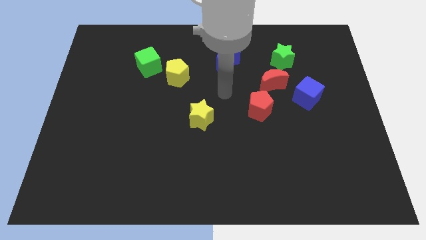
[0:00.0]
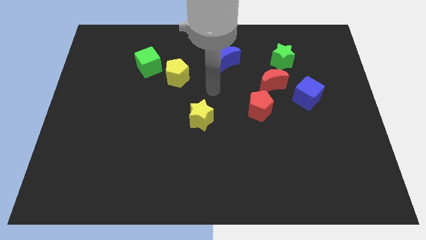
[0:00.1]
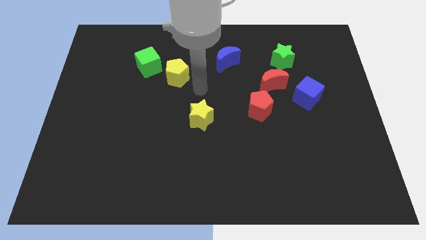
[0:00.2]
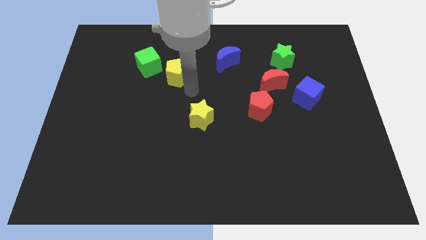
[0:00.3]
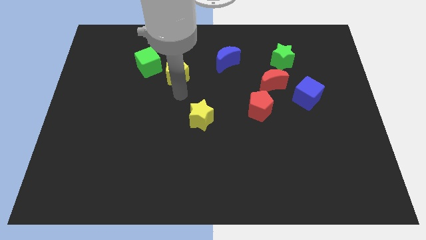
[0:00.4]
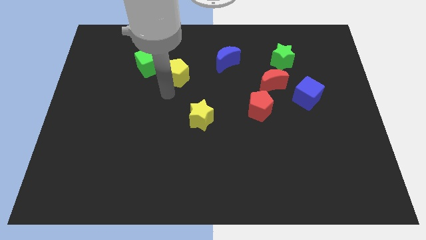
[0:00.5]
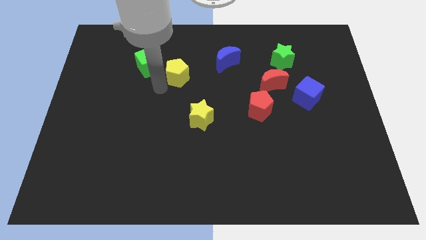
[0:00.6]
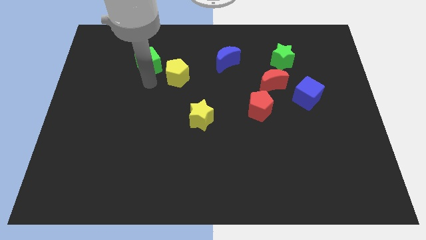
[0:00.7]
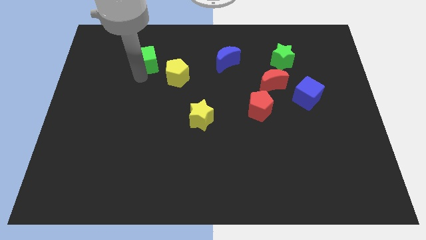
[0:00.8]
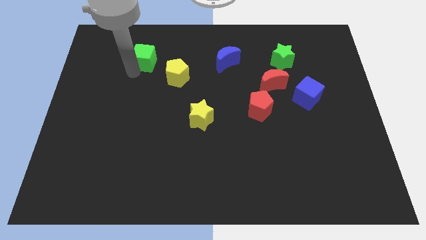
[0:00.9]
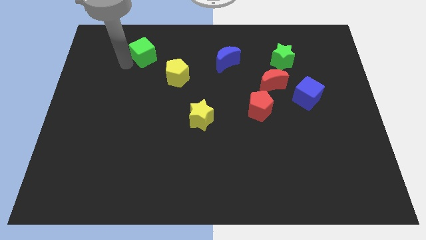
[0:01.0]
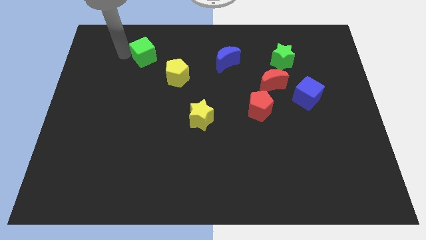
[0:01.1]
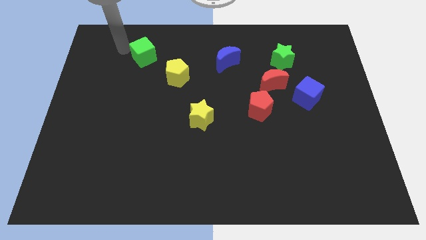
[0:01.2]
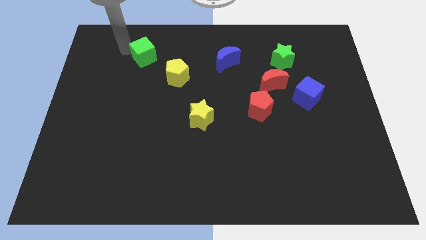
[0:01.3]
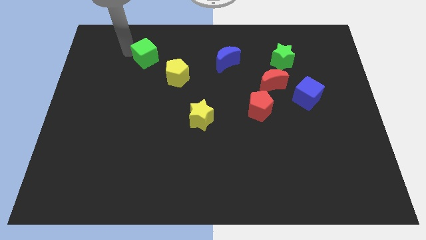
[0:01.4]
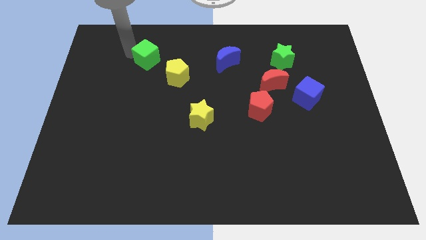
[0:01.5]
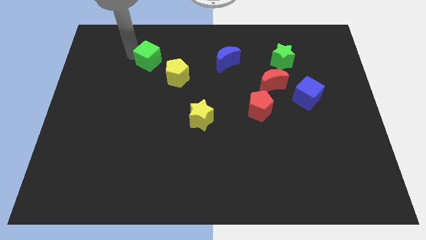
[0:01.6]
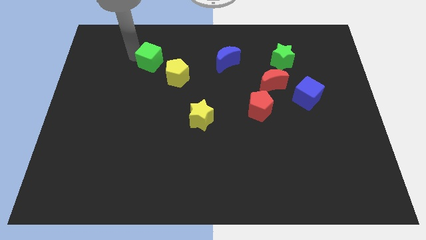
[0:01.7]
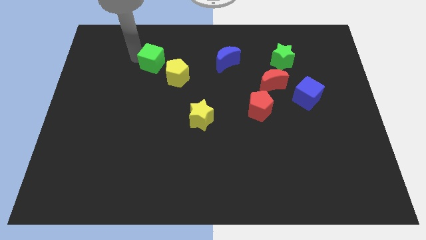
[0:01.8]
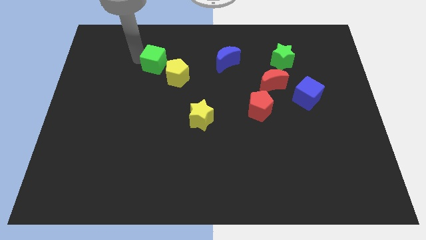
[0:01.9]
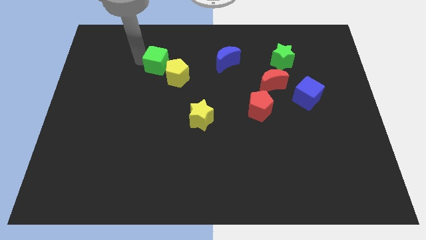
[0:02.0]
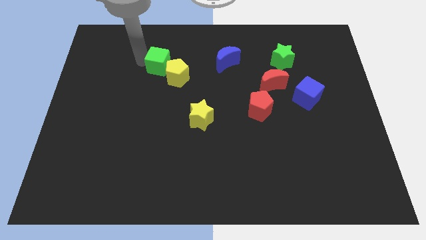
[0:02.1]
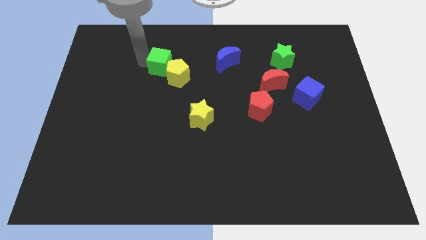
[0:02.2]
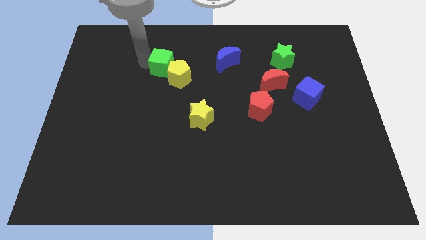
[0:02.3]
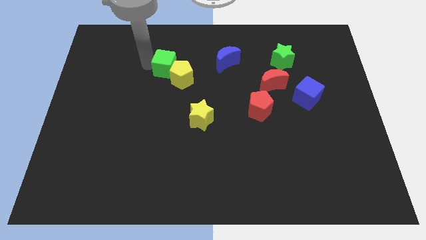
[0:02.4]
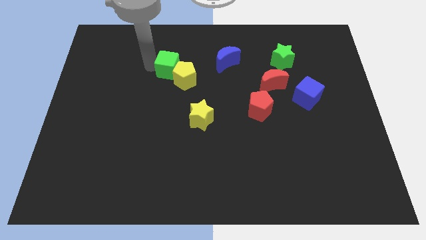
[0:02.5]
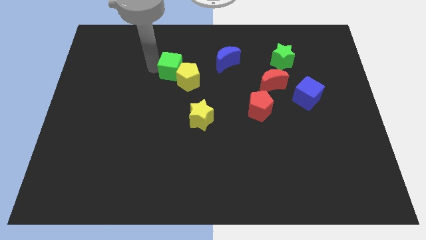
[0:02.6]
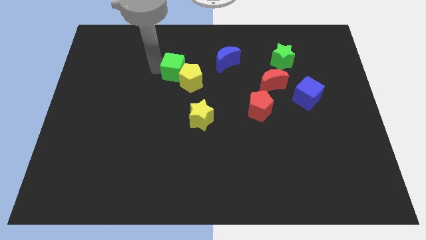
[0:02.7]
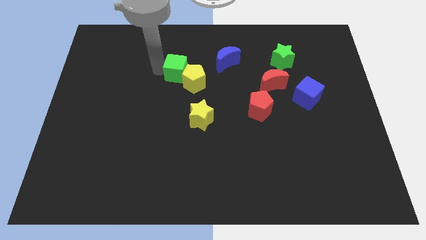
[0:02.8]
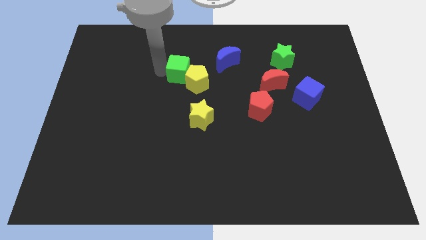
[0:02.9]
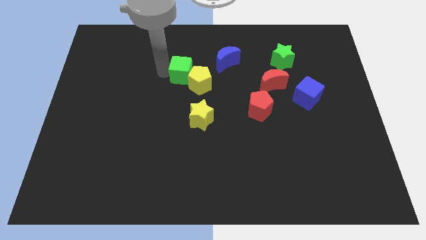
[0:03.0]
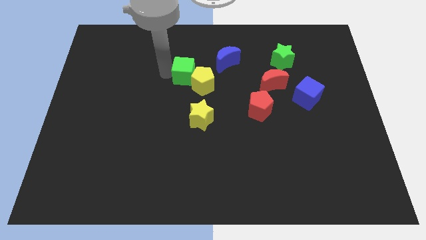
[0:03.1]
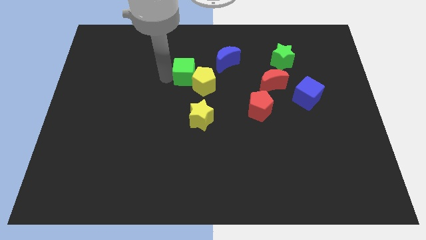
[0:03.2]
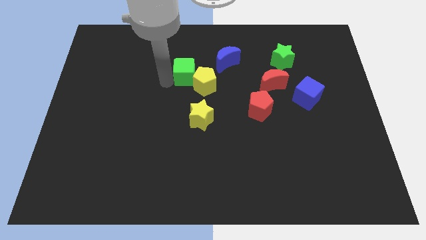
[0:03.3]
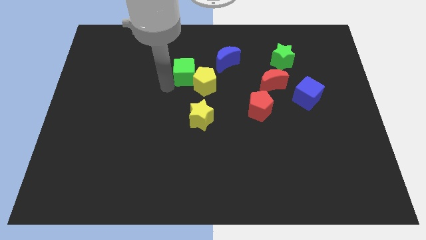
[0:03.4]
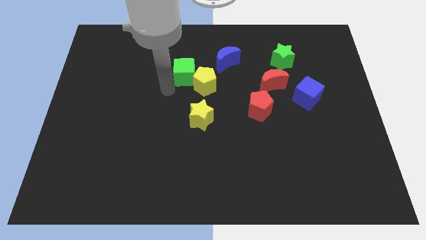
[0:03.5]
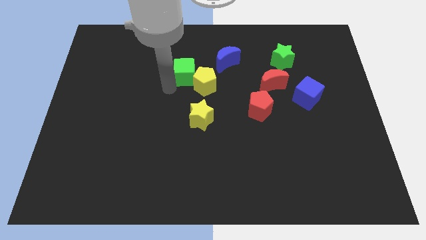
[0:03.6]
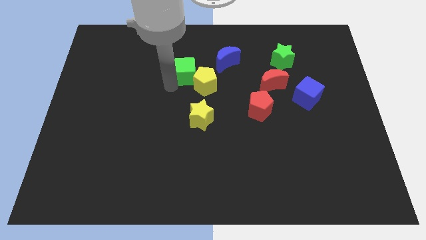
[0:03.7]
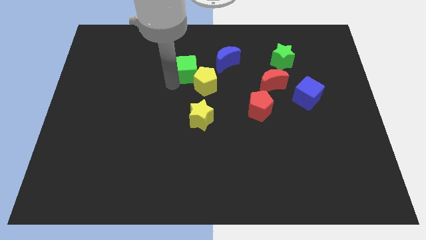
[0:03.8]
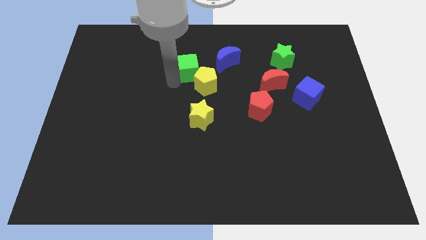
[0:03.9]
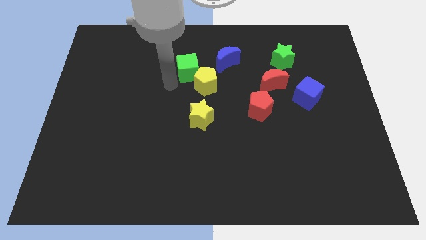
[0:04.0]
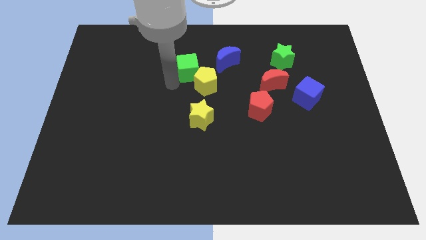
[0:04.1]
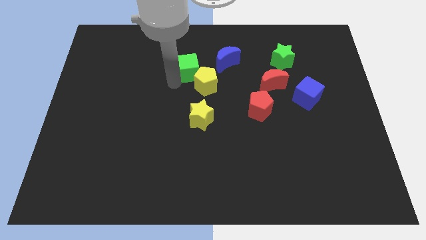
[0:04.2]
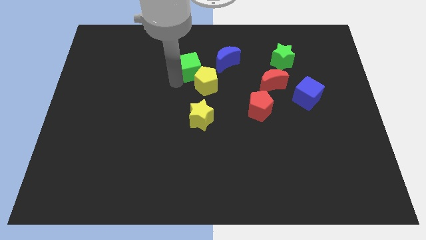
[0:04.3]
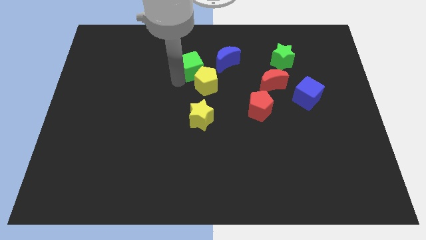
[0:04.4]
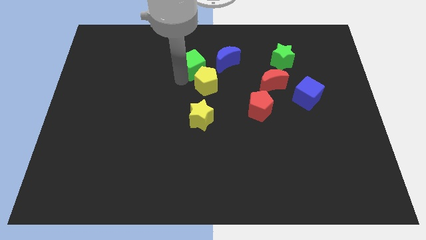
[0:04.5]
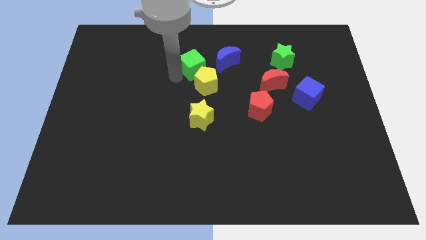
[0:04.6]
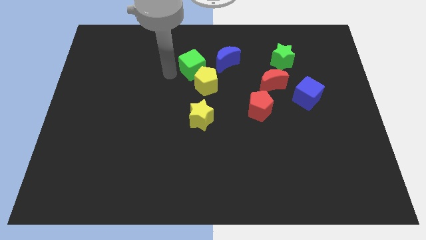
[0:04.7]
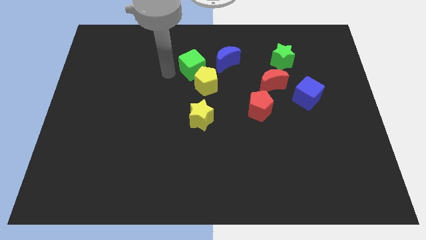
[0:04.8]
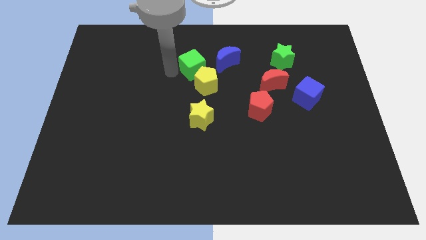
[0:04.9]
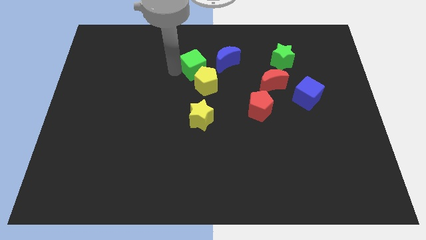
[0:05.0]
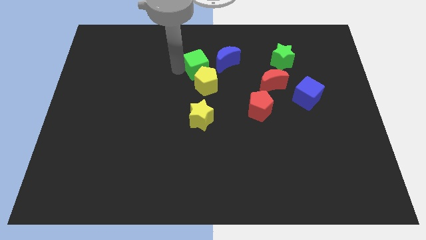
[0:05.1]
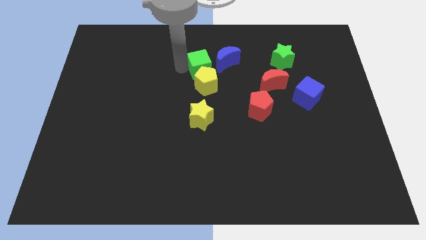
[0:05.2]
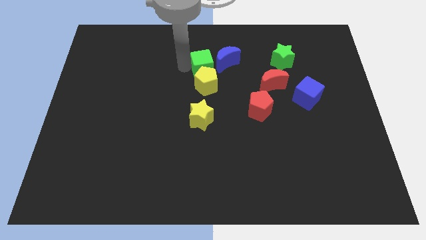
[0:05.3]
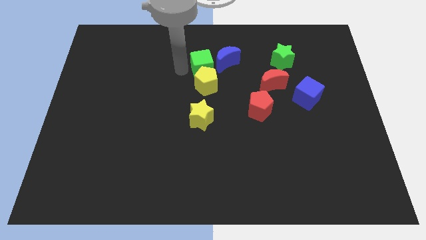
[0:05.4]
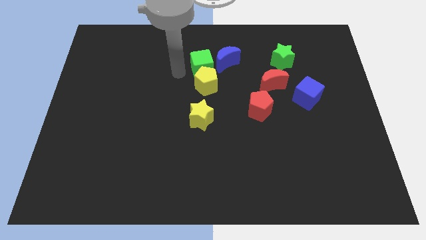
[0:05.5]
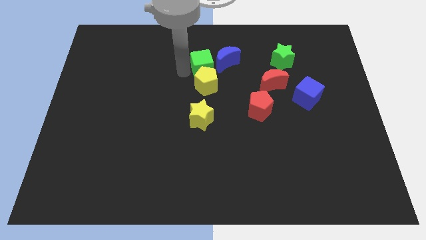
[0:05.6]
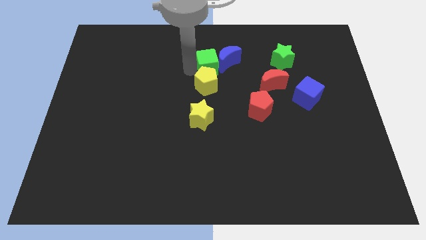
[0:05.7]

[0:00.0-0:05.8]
slide the green cube towards the blue moon

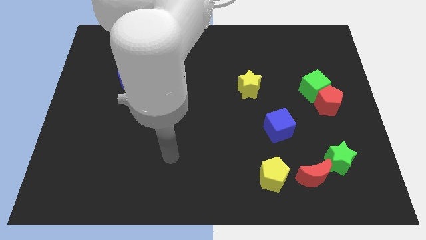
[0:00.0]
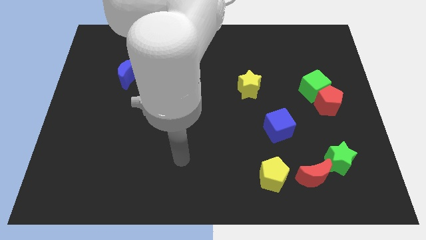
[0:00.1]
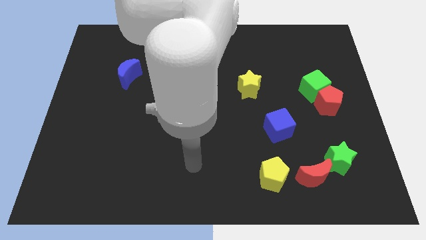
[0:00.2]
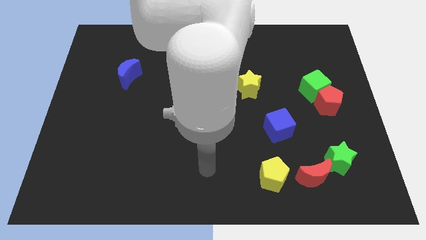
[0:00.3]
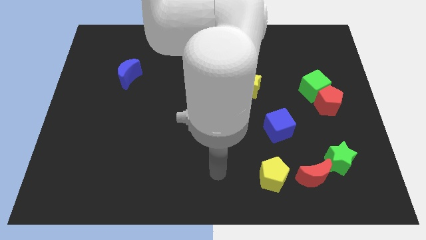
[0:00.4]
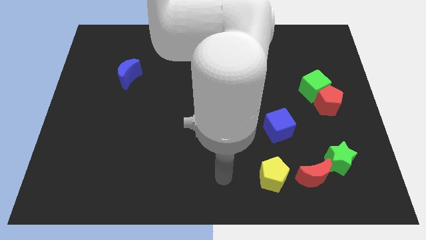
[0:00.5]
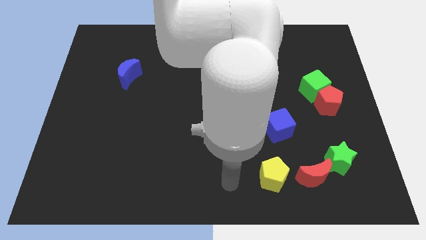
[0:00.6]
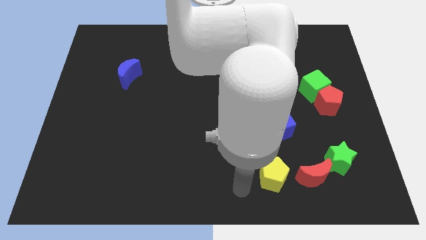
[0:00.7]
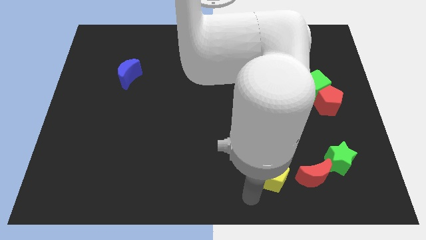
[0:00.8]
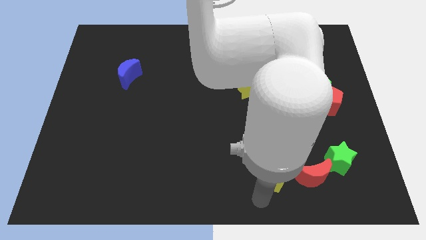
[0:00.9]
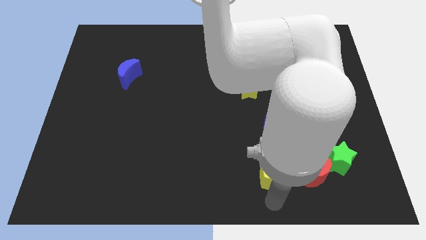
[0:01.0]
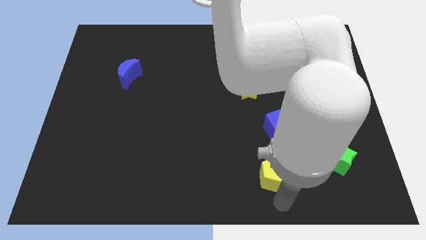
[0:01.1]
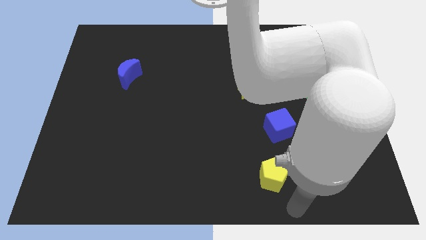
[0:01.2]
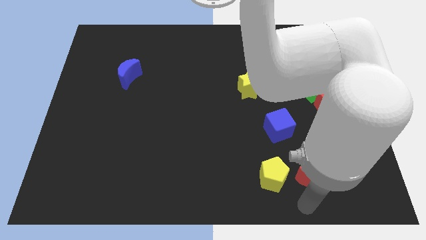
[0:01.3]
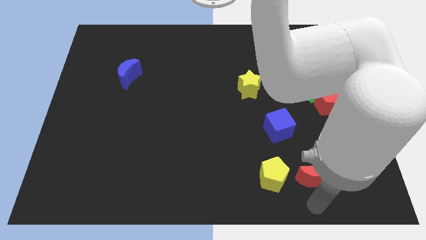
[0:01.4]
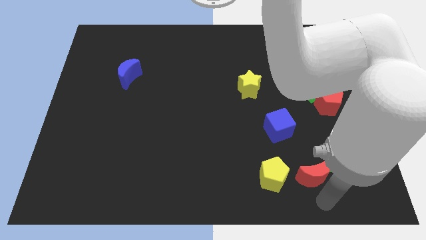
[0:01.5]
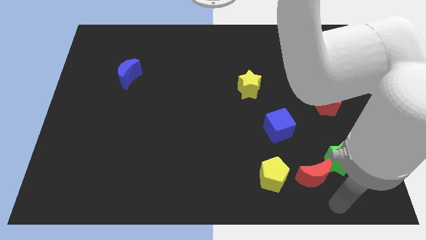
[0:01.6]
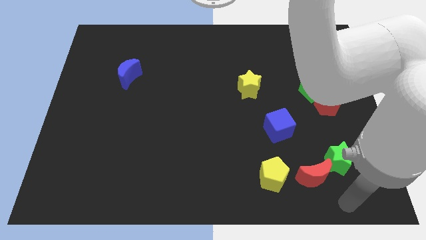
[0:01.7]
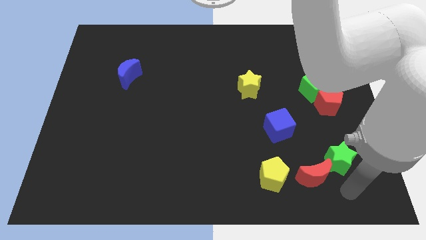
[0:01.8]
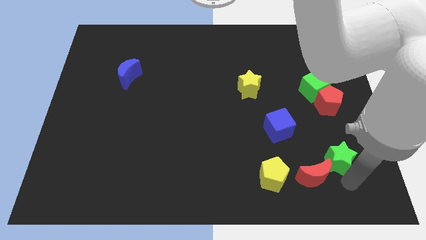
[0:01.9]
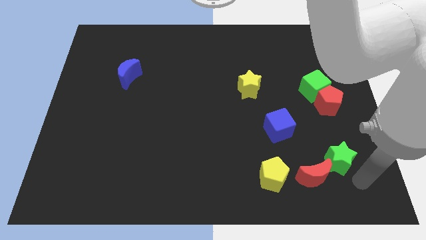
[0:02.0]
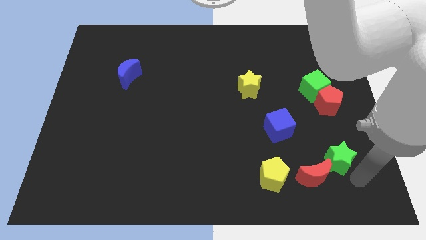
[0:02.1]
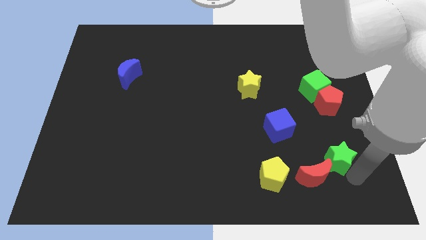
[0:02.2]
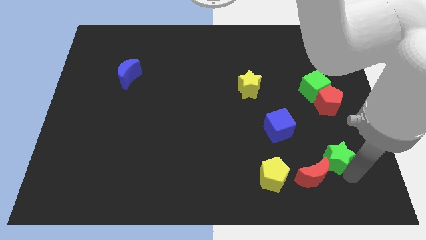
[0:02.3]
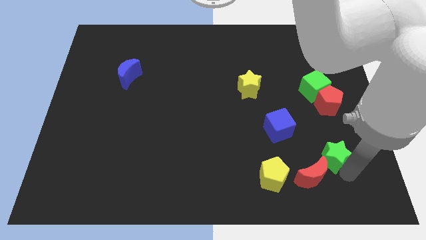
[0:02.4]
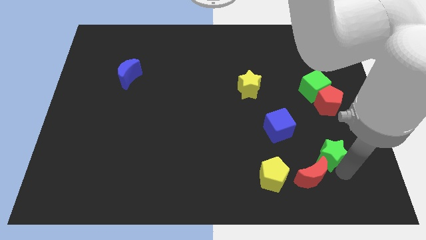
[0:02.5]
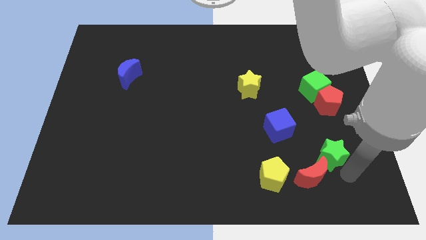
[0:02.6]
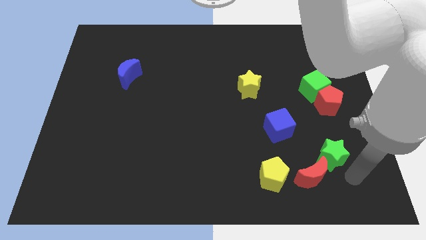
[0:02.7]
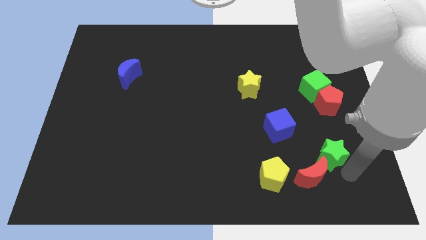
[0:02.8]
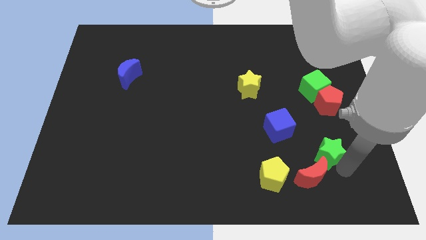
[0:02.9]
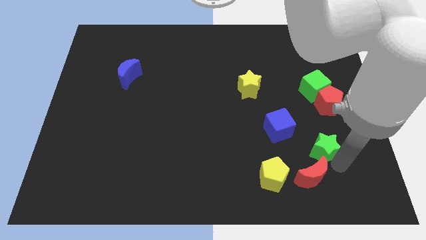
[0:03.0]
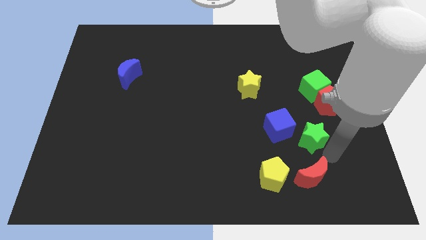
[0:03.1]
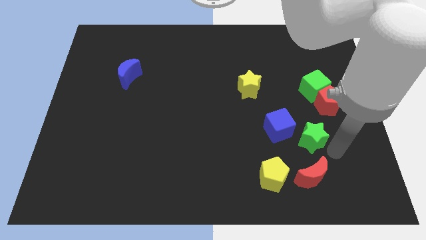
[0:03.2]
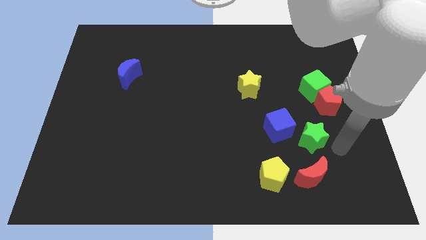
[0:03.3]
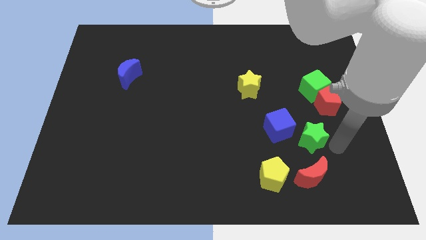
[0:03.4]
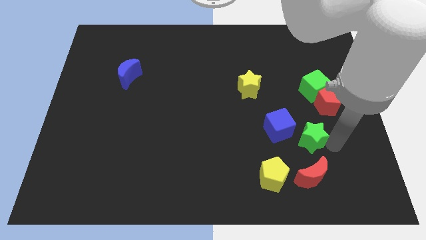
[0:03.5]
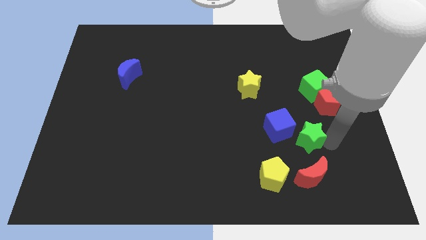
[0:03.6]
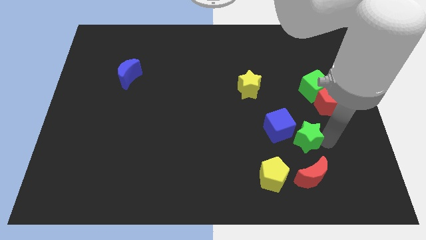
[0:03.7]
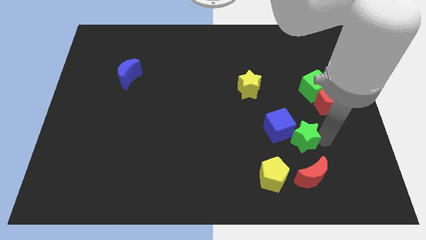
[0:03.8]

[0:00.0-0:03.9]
push the green star to the blue cube
